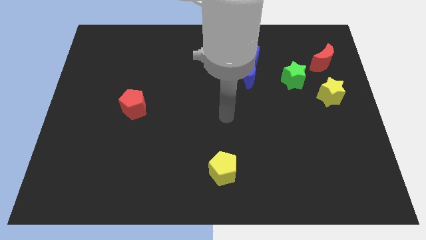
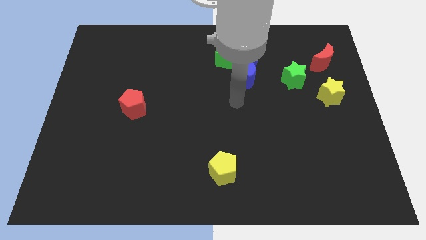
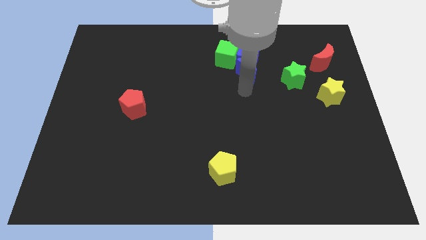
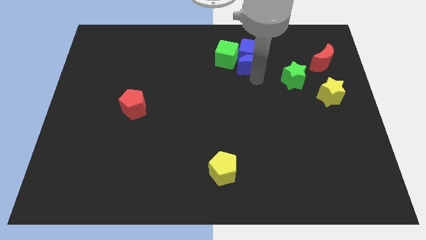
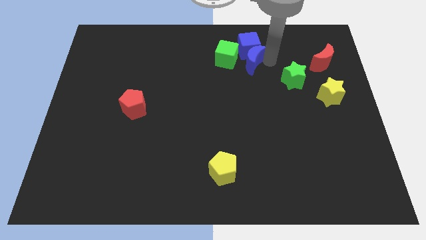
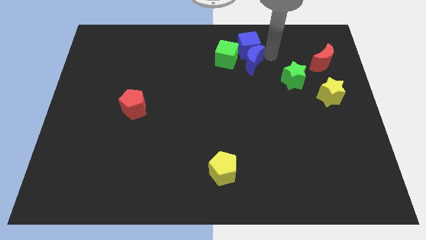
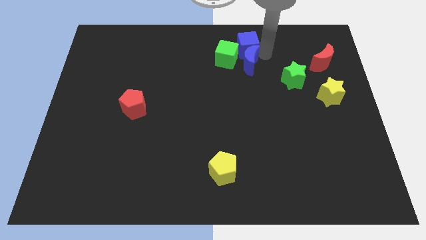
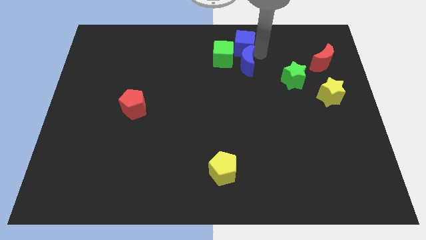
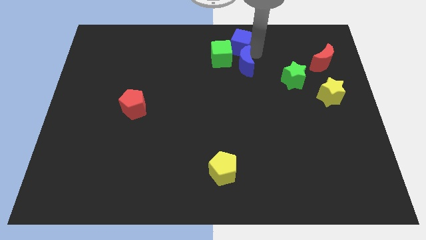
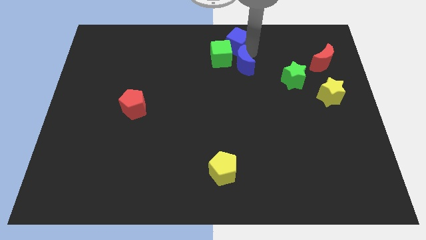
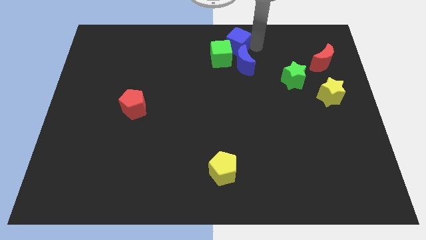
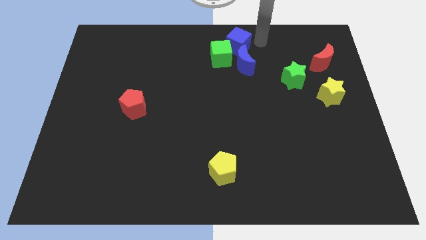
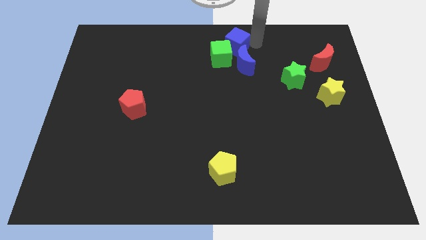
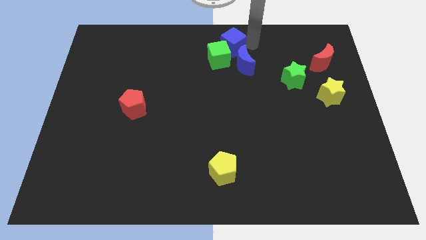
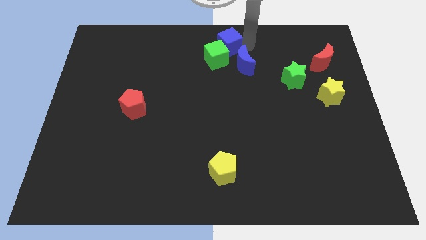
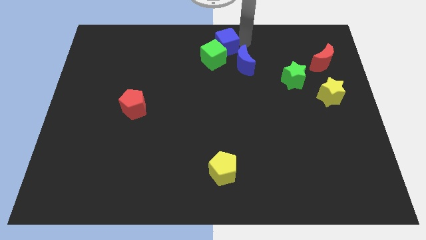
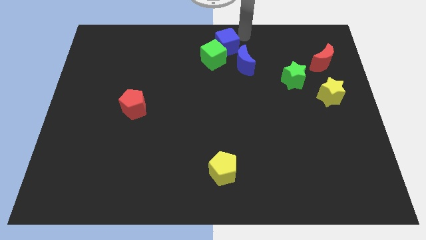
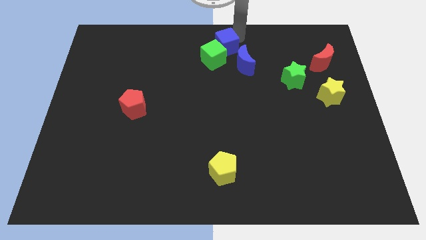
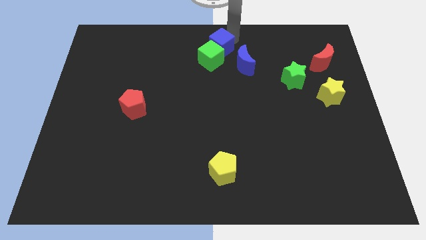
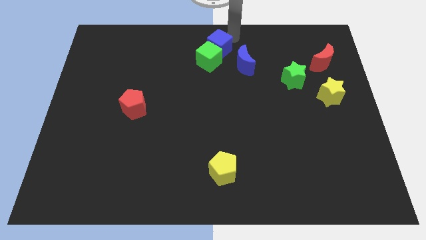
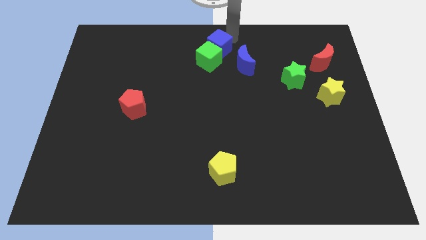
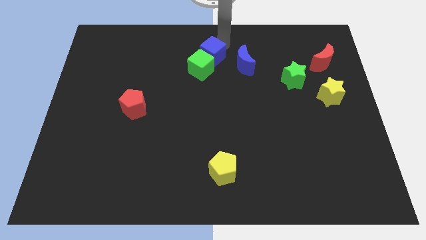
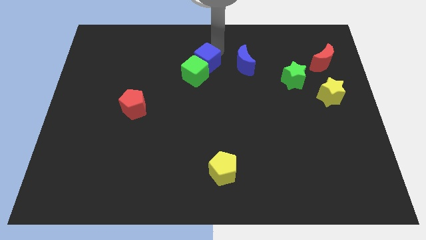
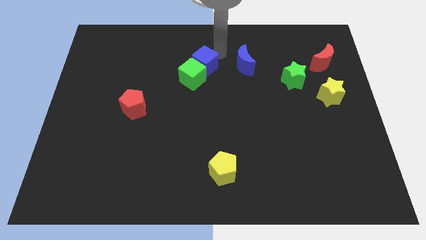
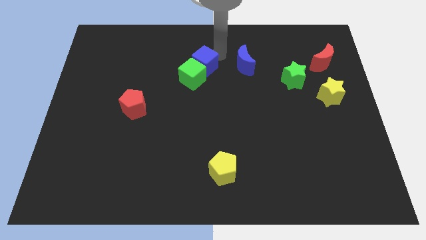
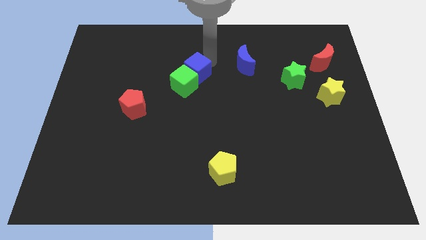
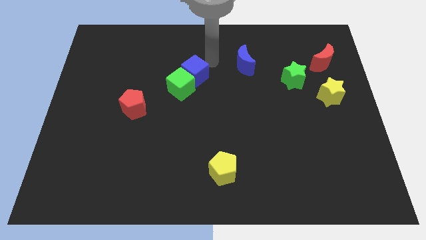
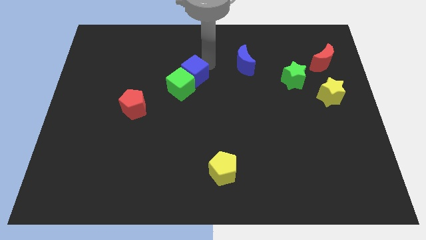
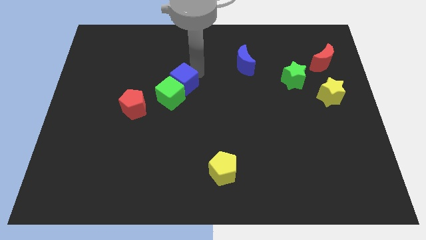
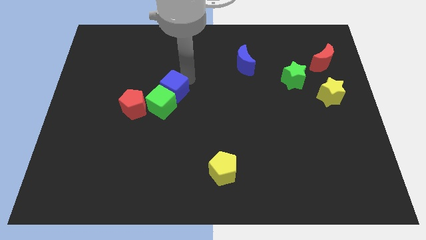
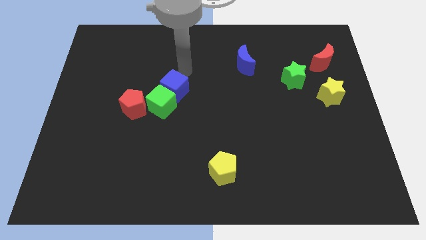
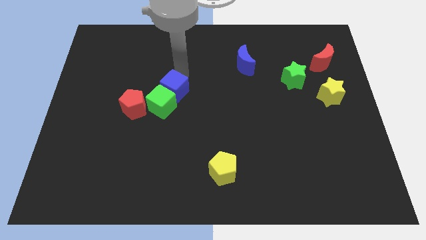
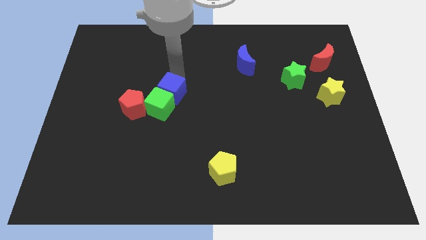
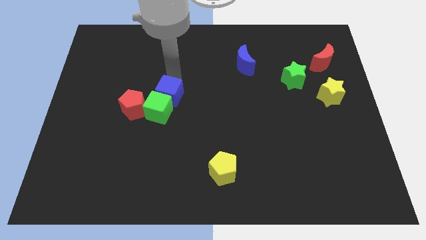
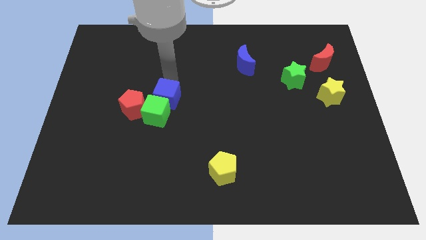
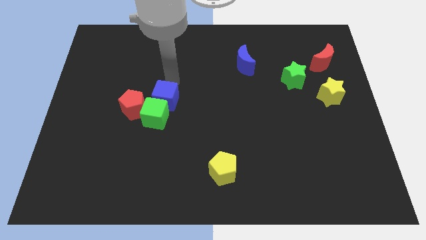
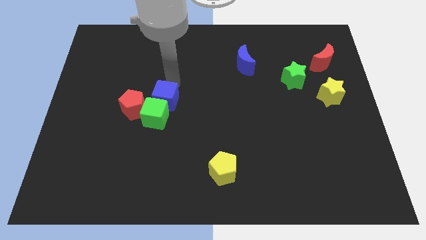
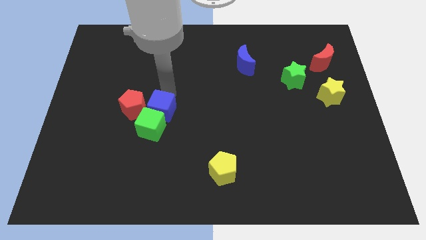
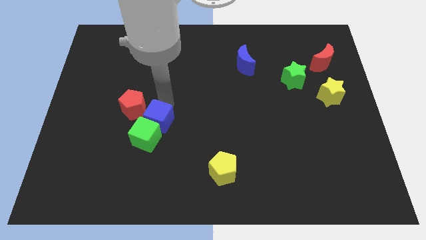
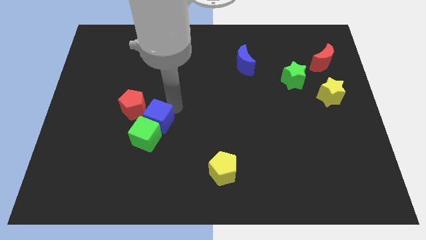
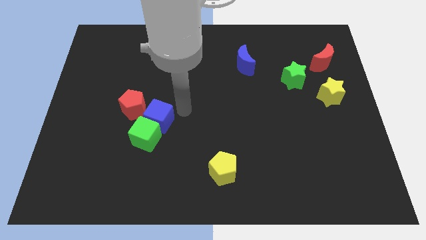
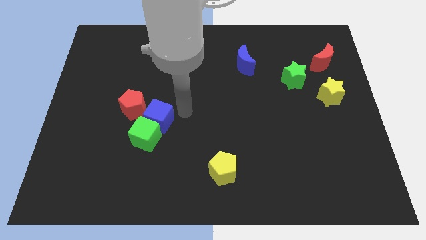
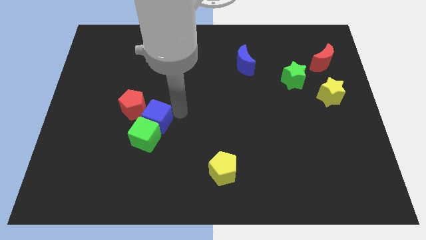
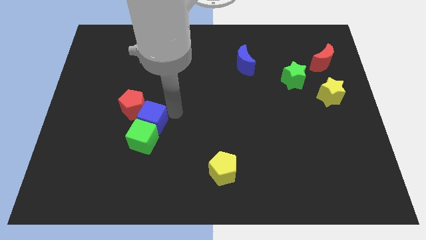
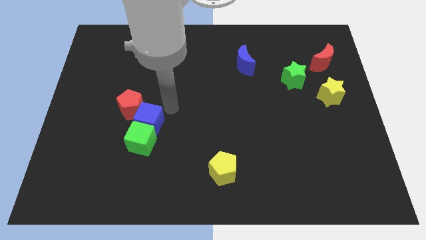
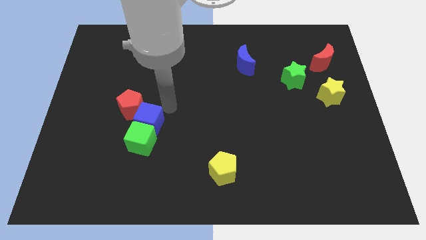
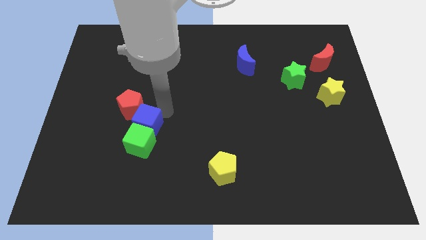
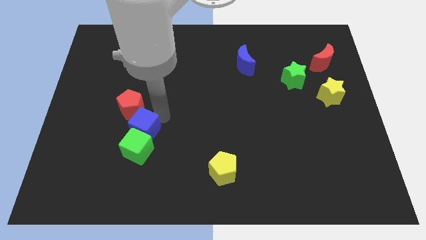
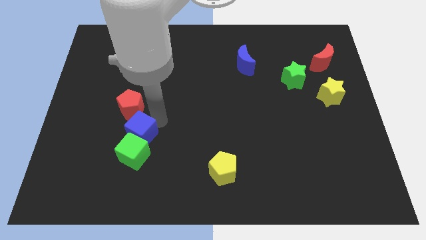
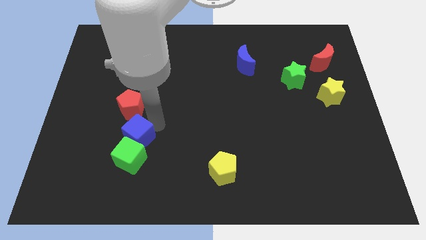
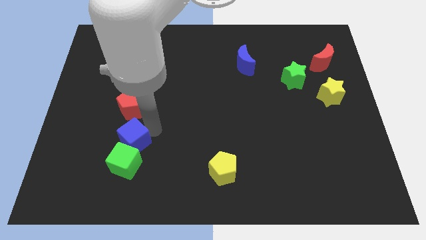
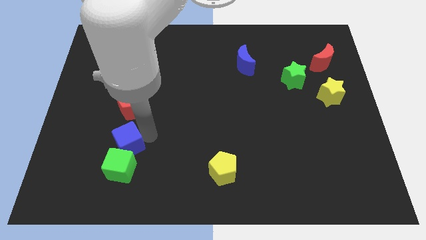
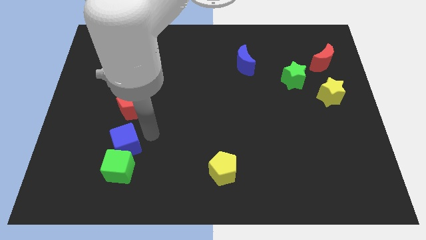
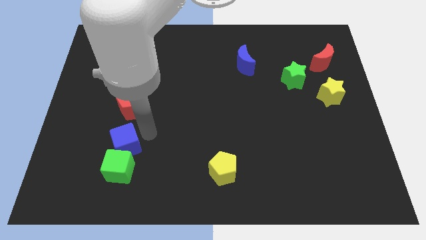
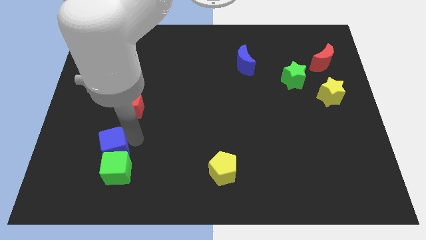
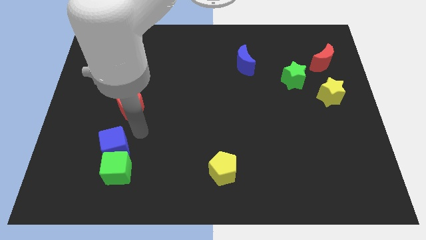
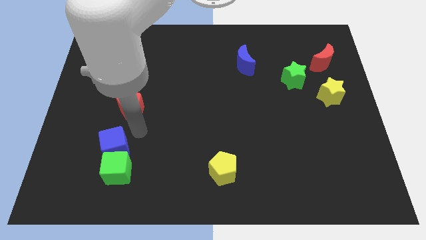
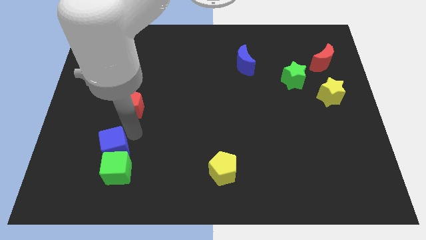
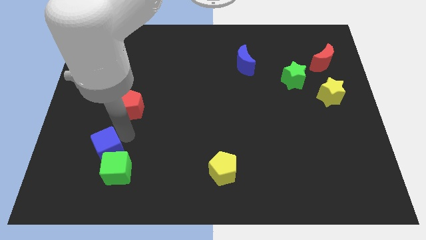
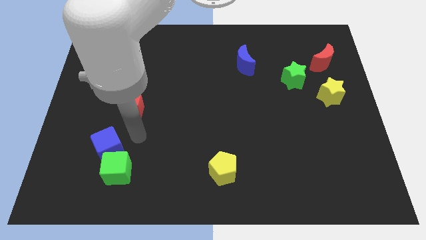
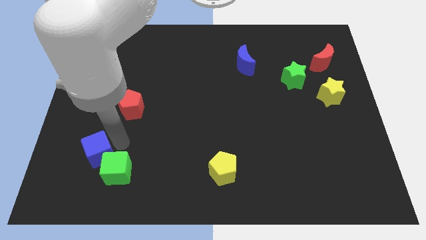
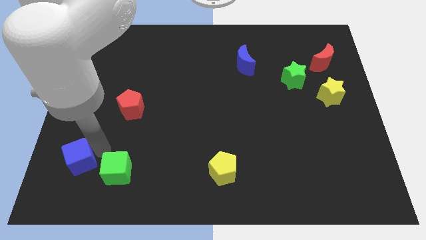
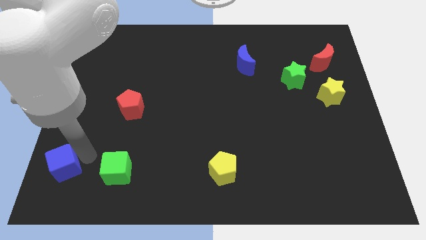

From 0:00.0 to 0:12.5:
put the blue cube to the bottom left of the board
